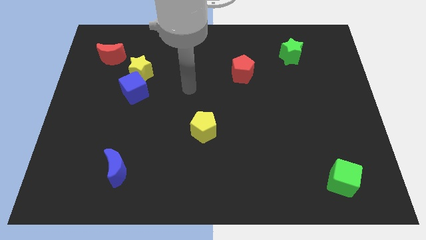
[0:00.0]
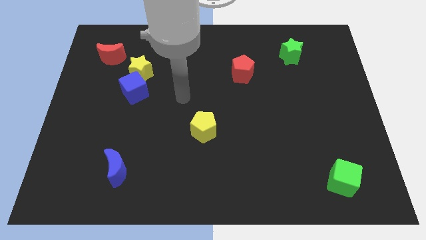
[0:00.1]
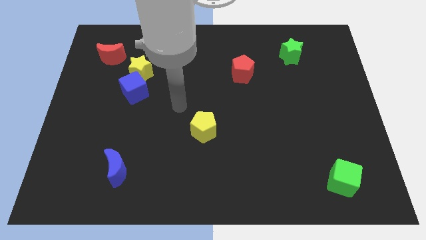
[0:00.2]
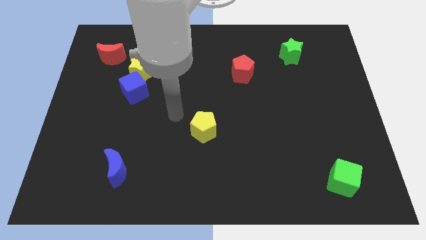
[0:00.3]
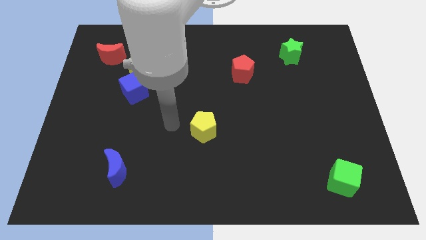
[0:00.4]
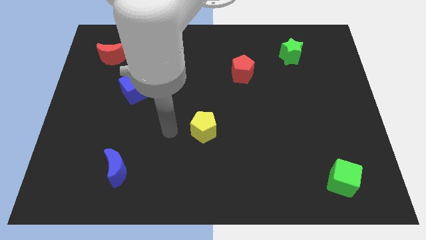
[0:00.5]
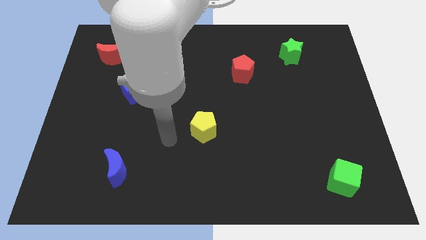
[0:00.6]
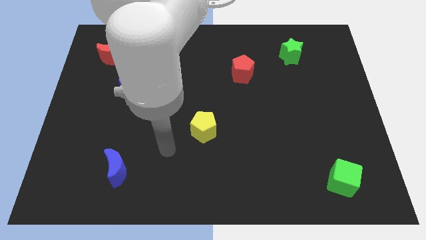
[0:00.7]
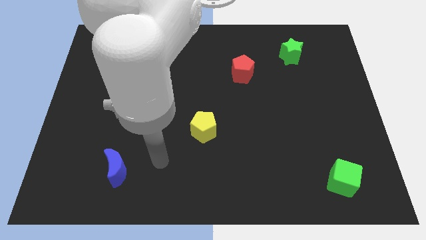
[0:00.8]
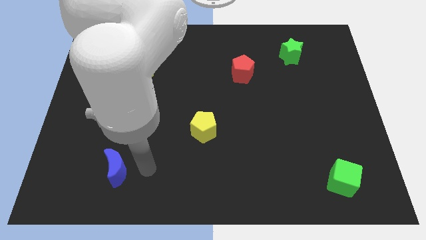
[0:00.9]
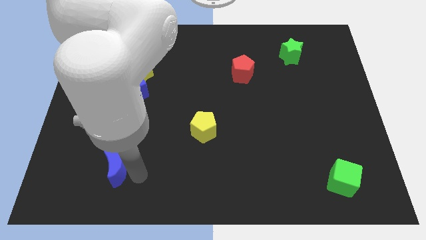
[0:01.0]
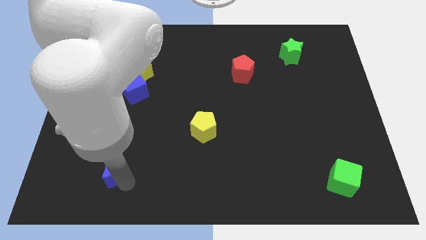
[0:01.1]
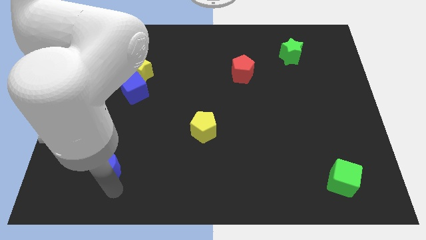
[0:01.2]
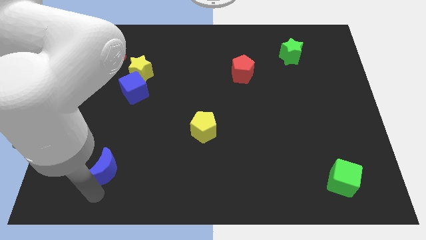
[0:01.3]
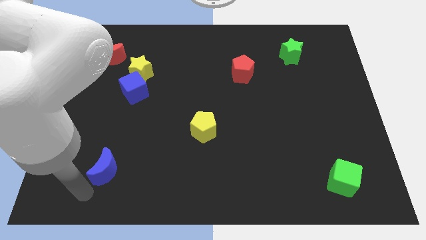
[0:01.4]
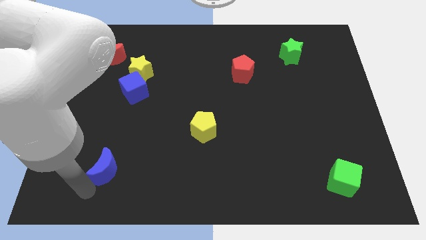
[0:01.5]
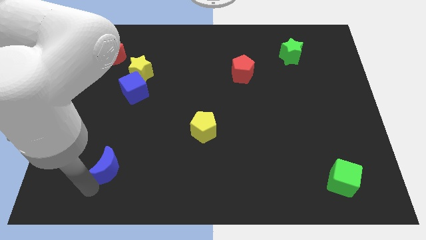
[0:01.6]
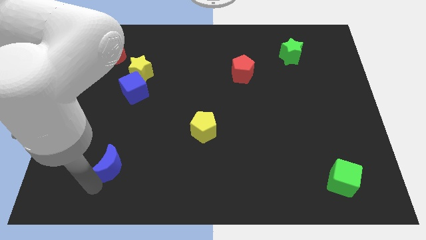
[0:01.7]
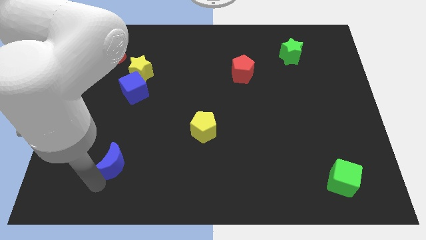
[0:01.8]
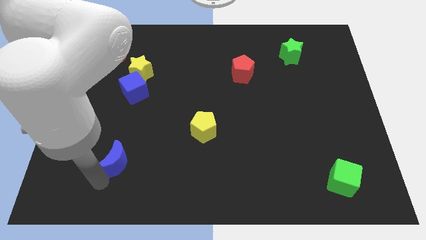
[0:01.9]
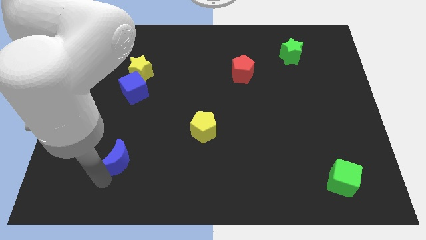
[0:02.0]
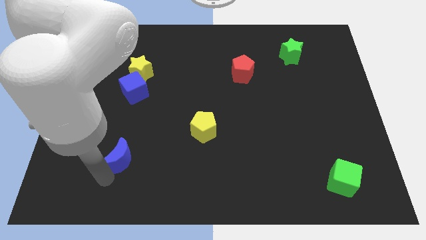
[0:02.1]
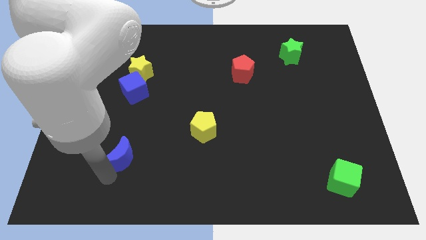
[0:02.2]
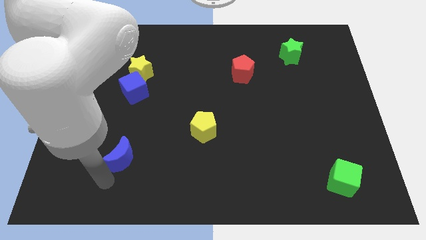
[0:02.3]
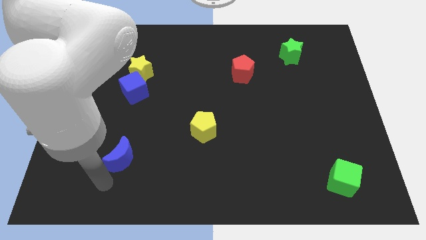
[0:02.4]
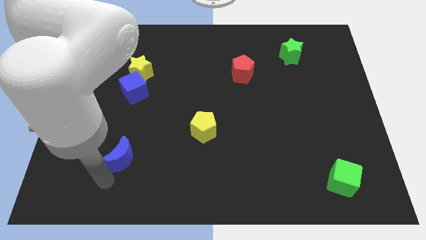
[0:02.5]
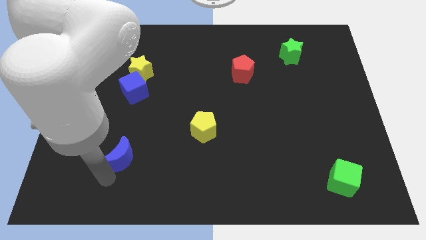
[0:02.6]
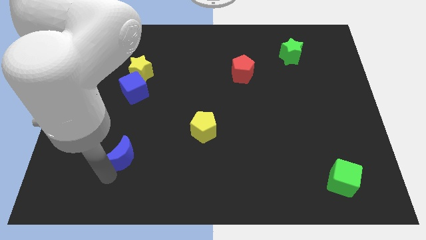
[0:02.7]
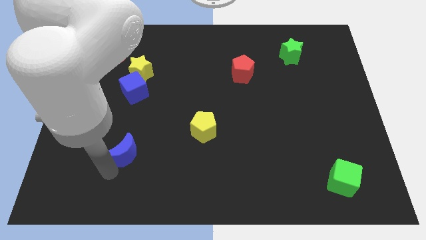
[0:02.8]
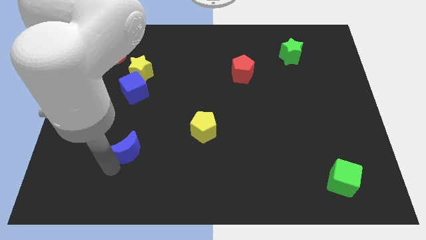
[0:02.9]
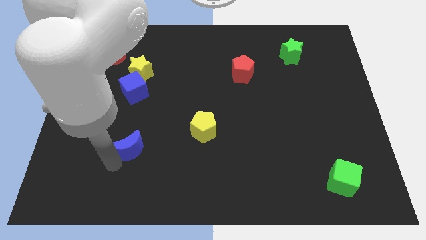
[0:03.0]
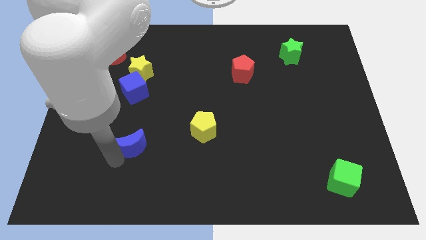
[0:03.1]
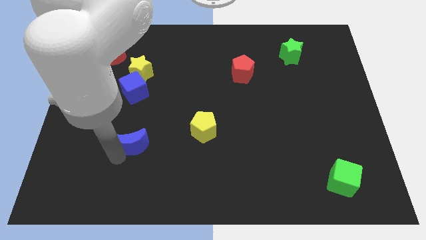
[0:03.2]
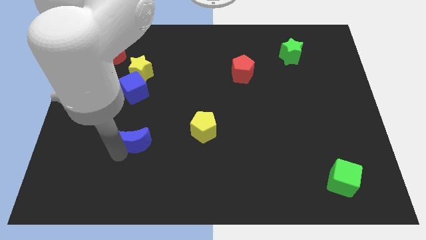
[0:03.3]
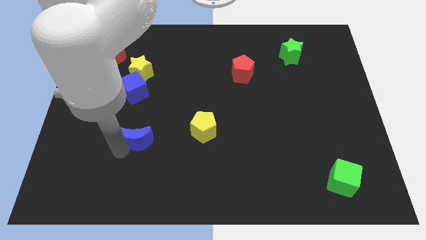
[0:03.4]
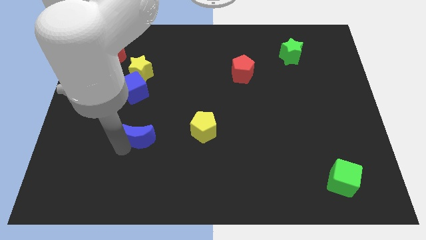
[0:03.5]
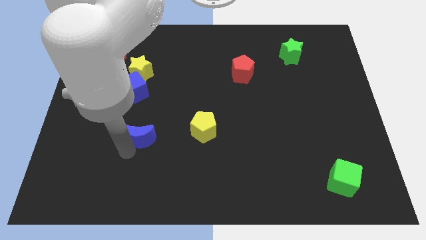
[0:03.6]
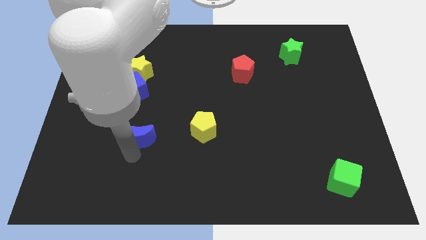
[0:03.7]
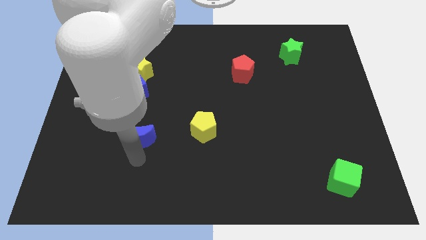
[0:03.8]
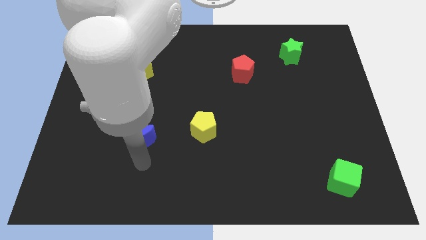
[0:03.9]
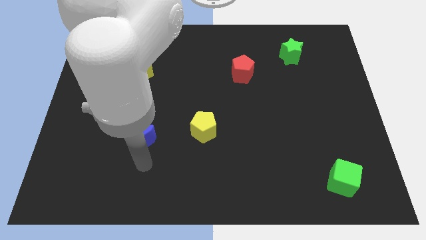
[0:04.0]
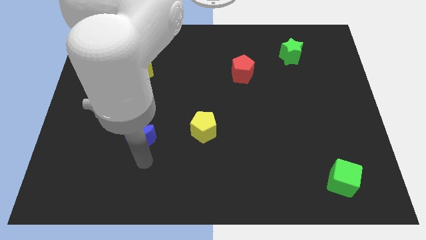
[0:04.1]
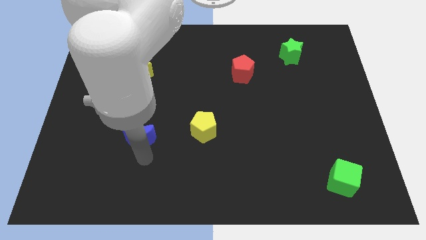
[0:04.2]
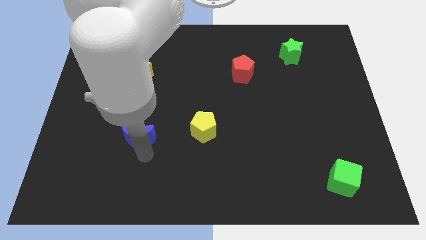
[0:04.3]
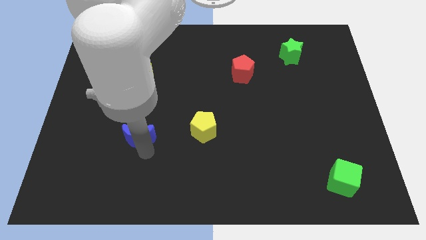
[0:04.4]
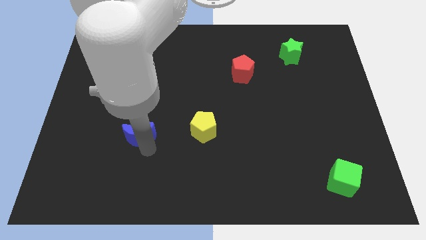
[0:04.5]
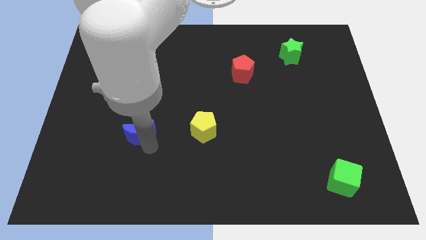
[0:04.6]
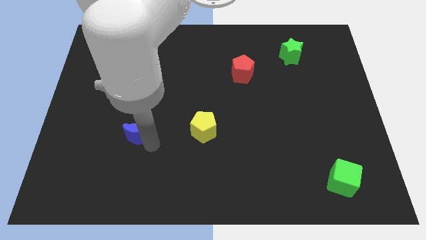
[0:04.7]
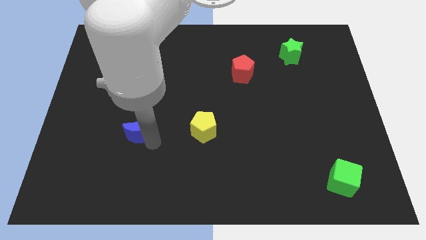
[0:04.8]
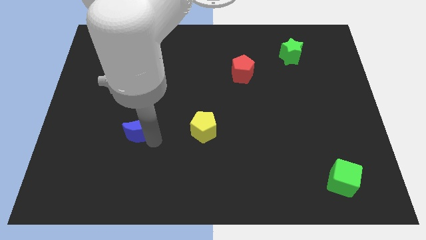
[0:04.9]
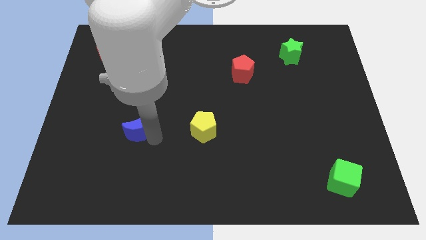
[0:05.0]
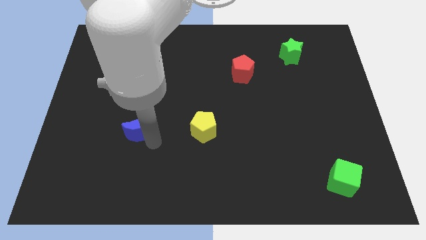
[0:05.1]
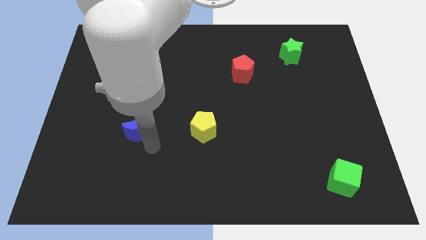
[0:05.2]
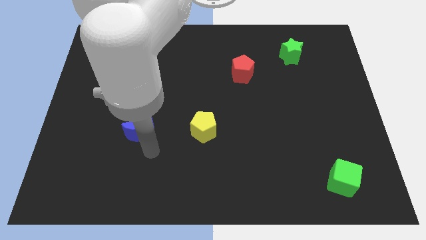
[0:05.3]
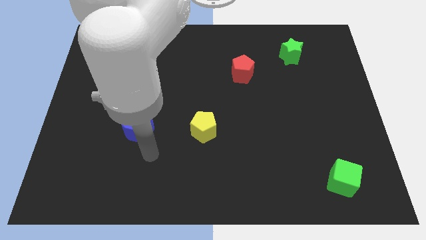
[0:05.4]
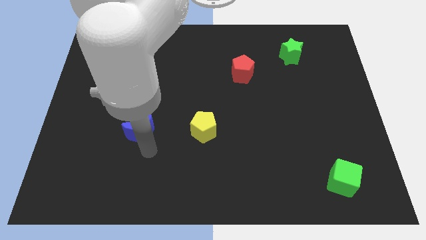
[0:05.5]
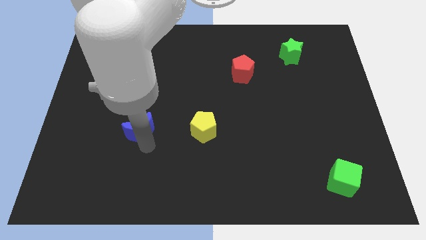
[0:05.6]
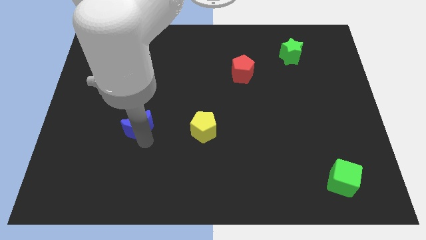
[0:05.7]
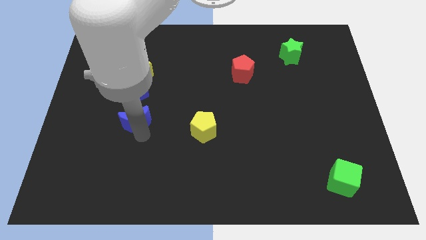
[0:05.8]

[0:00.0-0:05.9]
slide the blue moon to the bottom side of the yellow star
